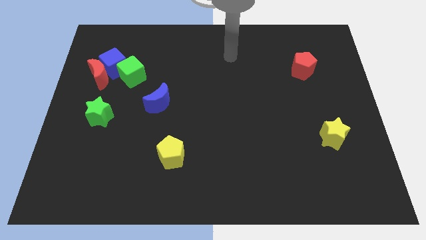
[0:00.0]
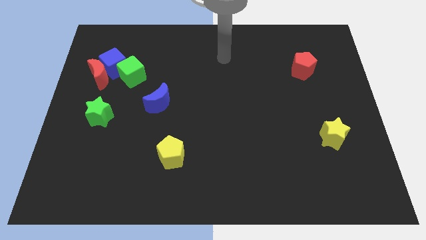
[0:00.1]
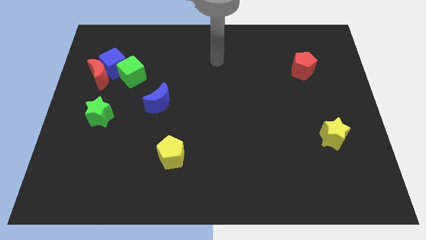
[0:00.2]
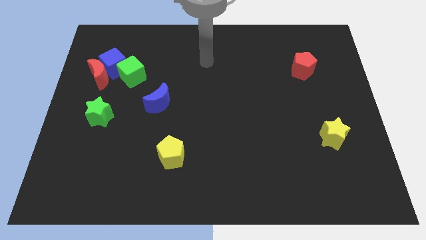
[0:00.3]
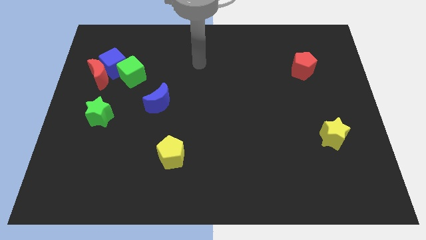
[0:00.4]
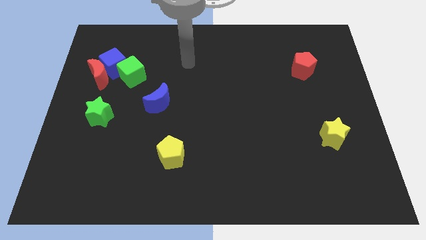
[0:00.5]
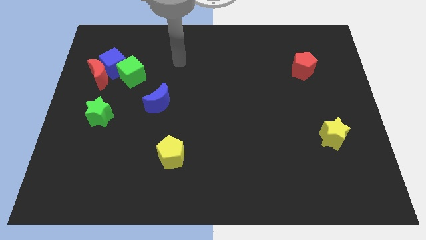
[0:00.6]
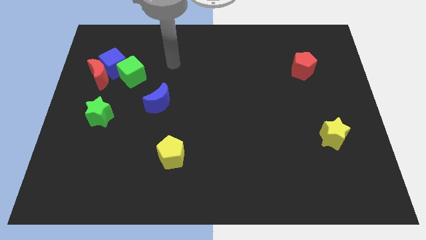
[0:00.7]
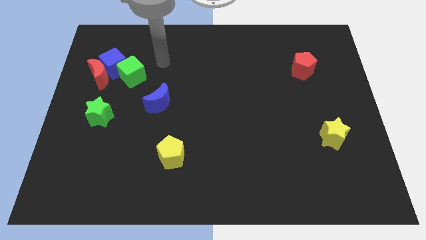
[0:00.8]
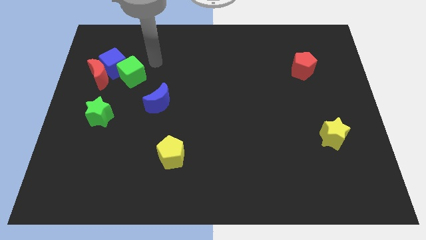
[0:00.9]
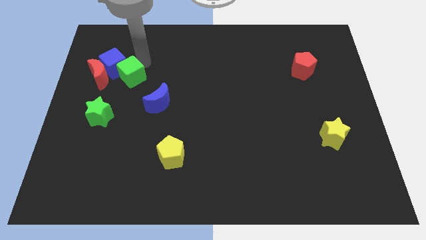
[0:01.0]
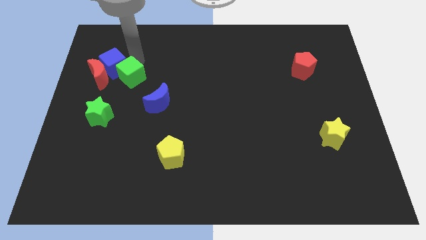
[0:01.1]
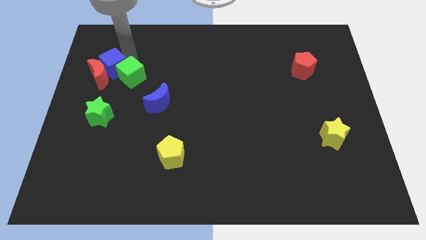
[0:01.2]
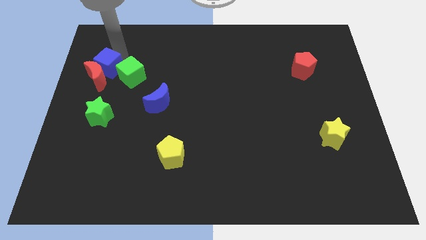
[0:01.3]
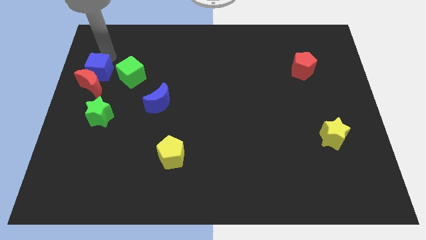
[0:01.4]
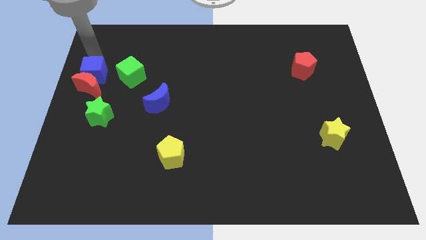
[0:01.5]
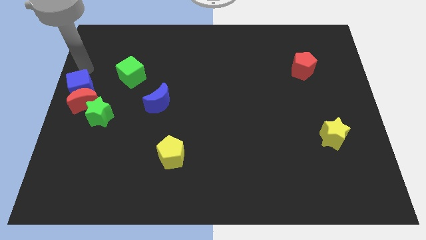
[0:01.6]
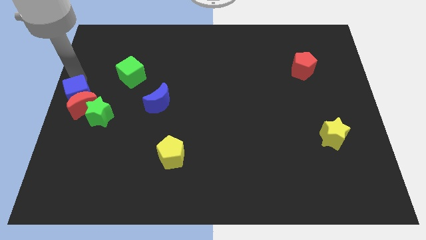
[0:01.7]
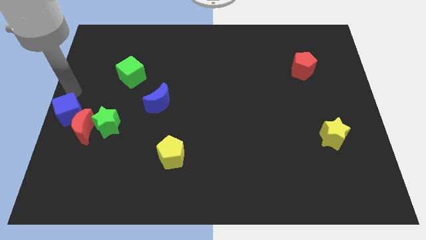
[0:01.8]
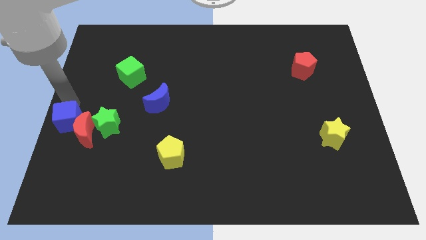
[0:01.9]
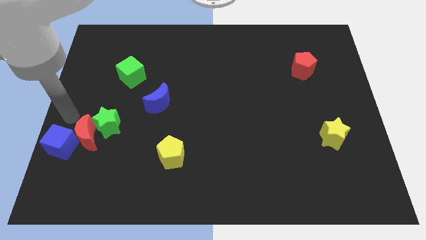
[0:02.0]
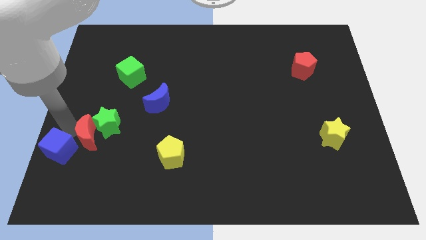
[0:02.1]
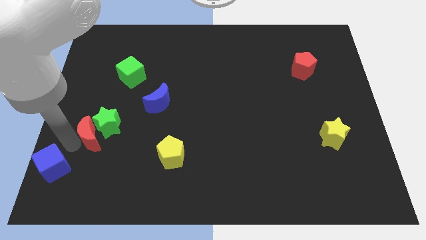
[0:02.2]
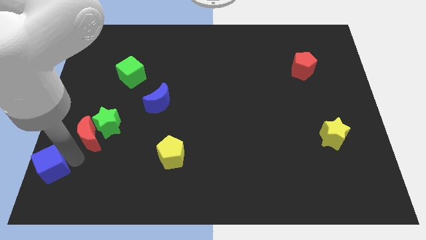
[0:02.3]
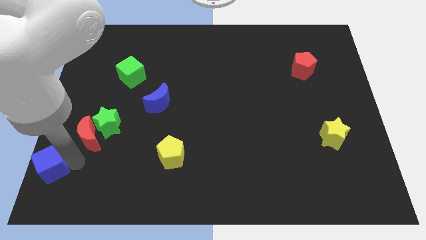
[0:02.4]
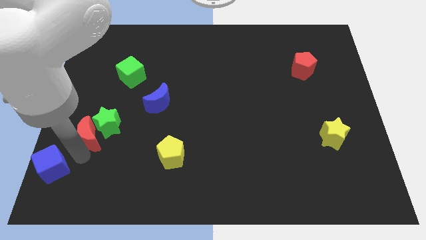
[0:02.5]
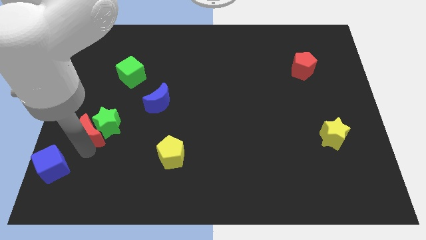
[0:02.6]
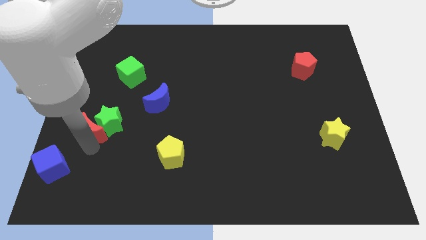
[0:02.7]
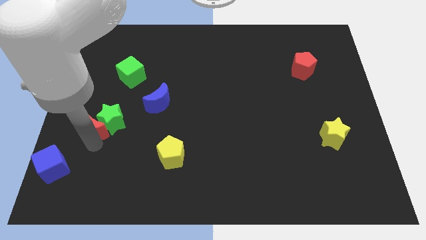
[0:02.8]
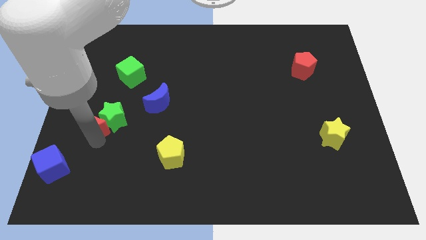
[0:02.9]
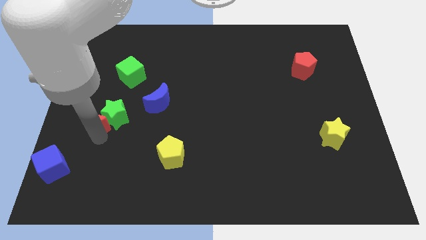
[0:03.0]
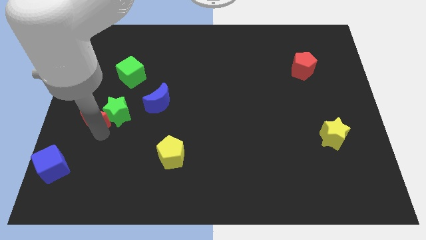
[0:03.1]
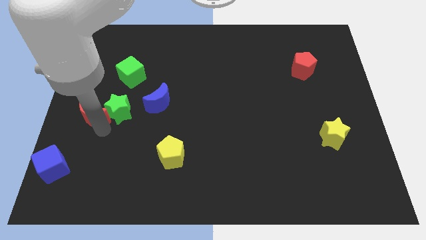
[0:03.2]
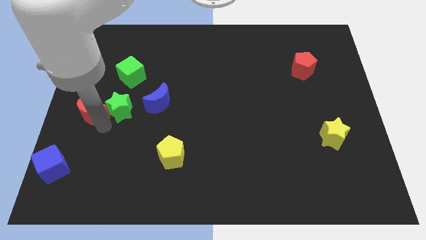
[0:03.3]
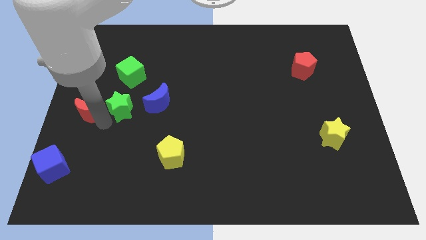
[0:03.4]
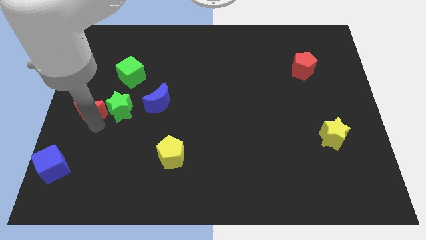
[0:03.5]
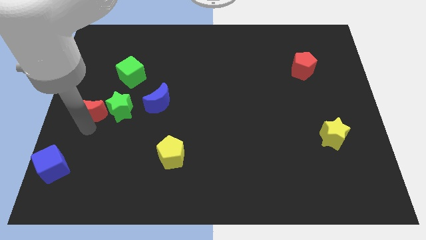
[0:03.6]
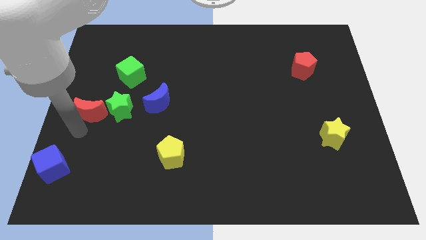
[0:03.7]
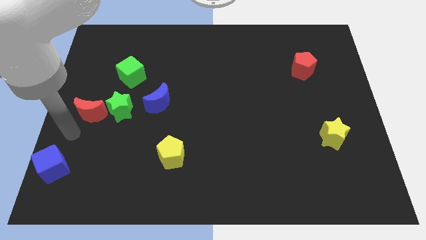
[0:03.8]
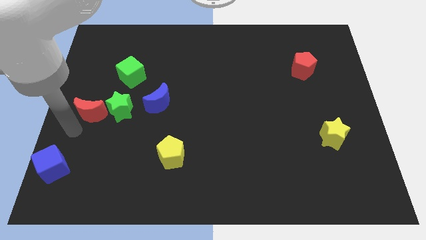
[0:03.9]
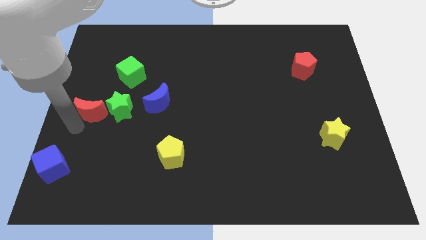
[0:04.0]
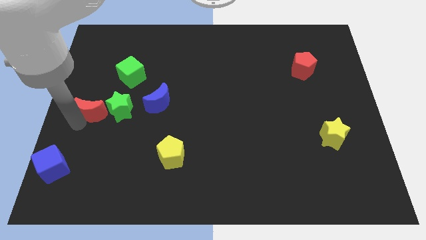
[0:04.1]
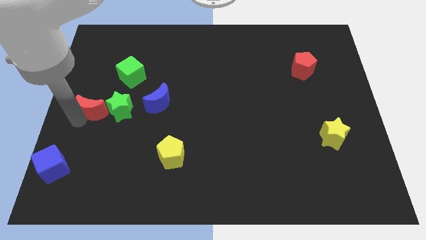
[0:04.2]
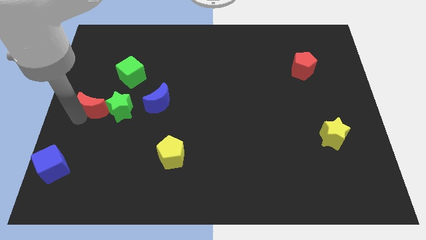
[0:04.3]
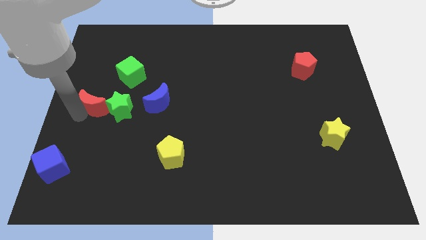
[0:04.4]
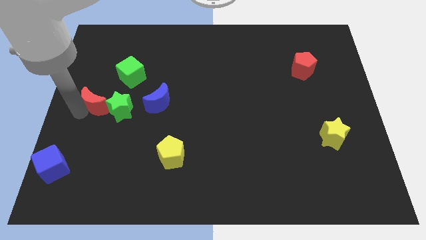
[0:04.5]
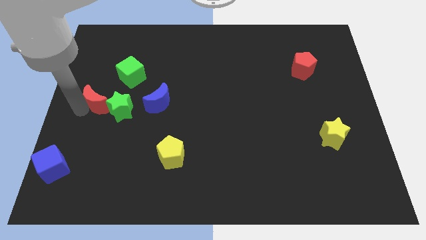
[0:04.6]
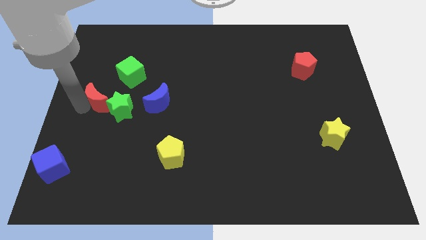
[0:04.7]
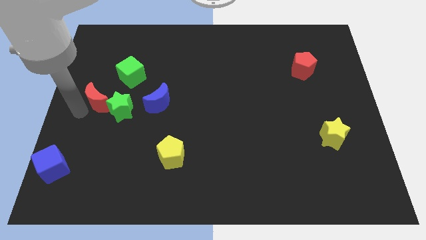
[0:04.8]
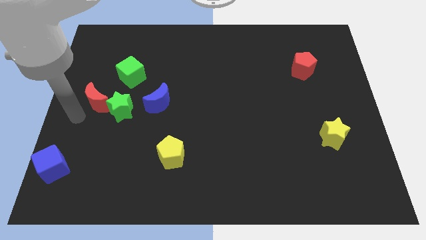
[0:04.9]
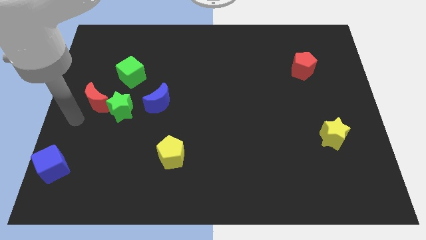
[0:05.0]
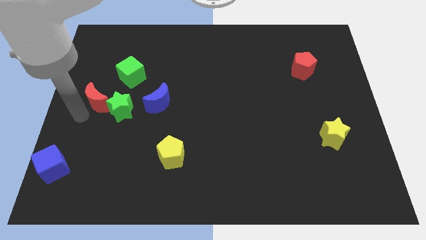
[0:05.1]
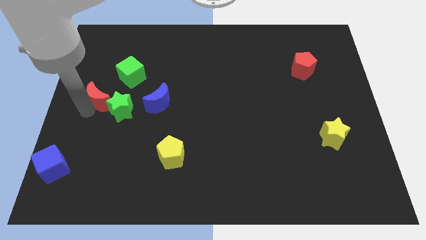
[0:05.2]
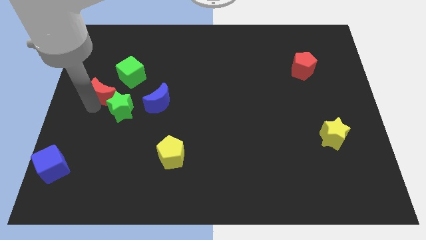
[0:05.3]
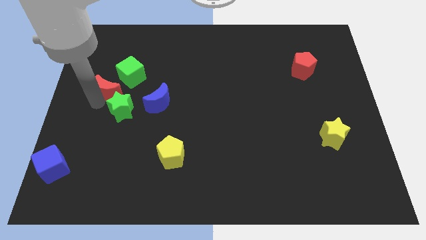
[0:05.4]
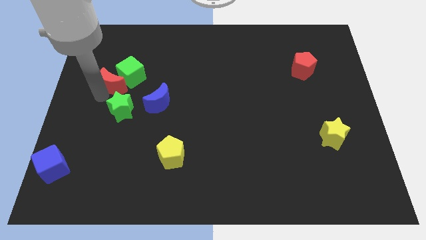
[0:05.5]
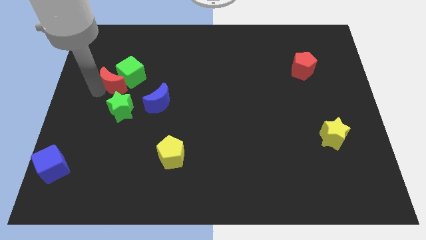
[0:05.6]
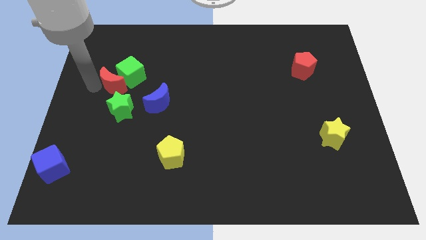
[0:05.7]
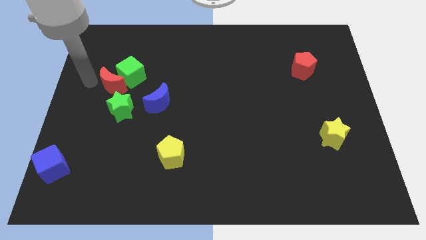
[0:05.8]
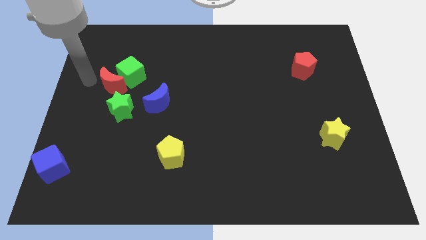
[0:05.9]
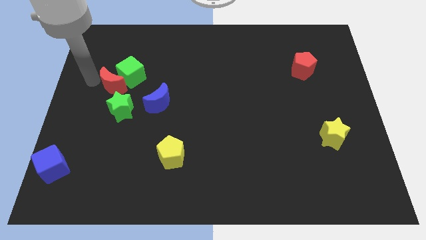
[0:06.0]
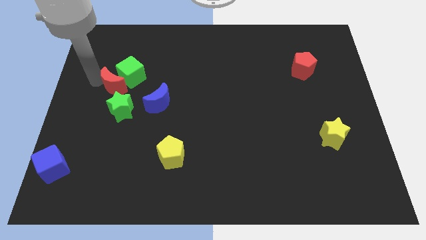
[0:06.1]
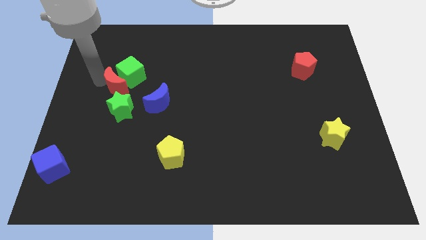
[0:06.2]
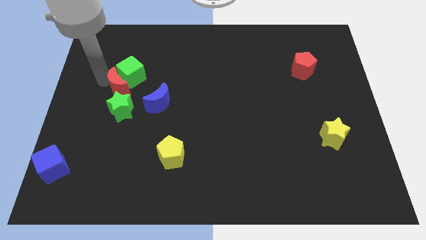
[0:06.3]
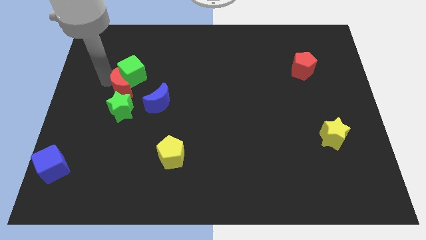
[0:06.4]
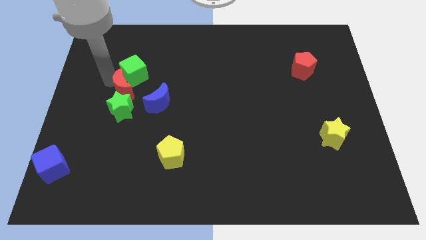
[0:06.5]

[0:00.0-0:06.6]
move the red moon to the top right side of the green star
